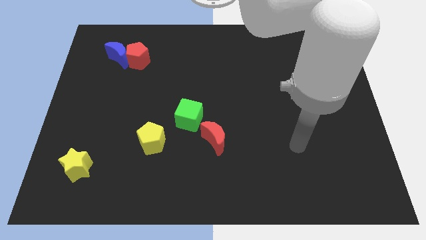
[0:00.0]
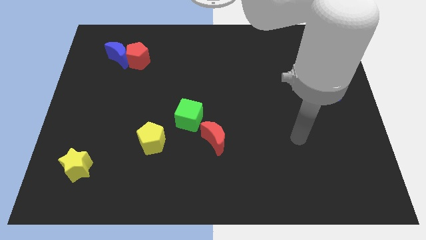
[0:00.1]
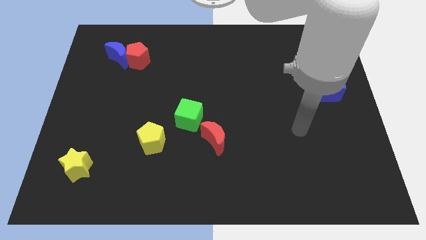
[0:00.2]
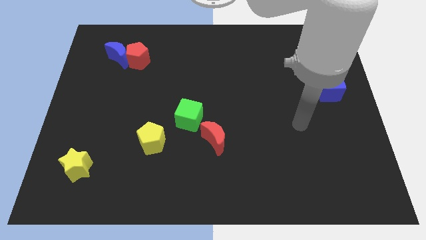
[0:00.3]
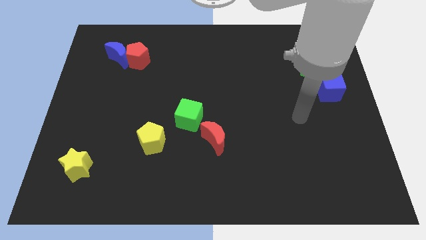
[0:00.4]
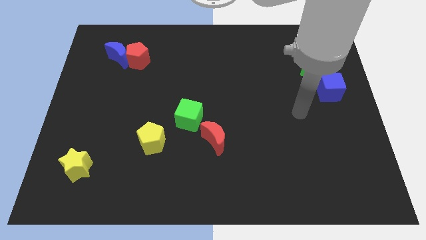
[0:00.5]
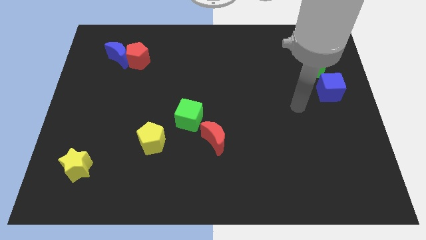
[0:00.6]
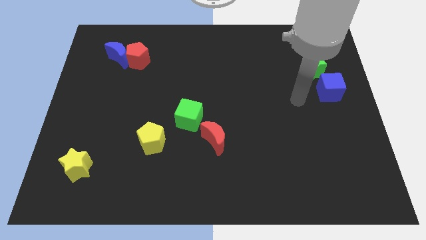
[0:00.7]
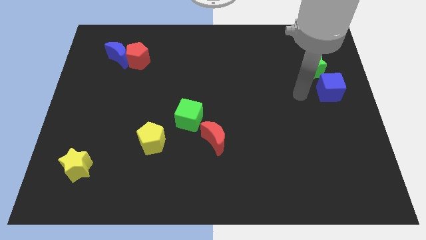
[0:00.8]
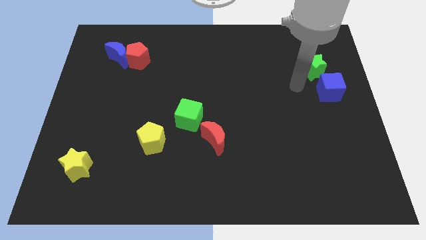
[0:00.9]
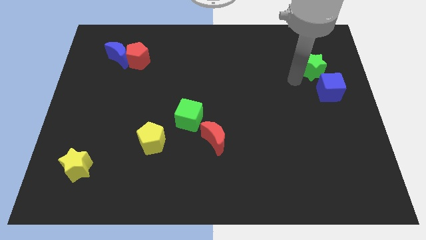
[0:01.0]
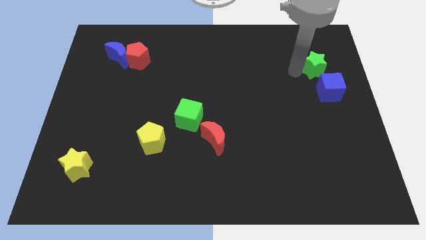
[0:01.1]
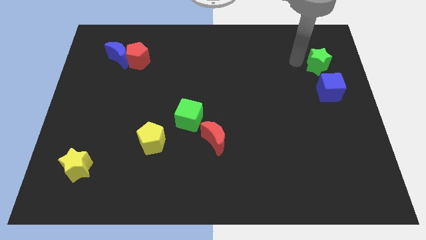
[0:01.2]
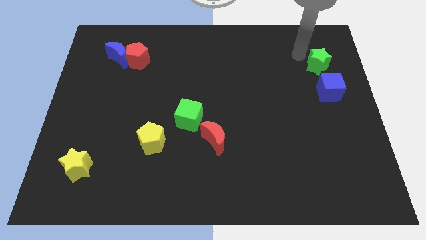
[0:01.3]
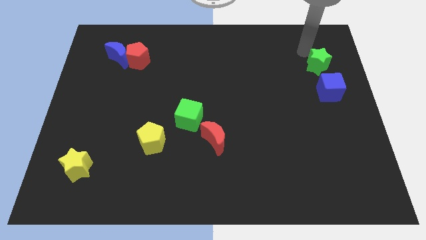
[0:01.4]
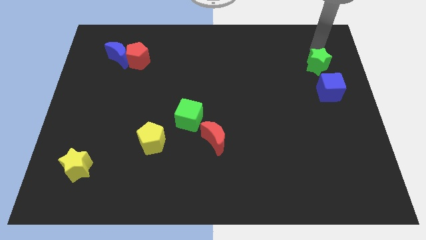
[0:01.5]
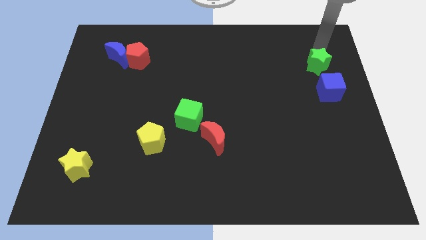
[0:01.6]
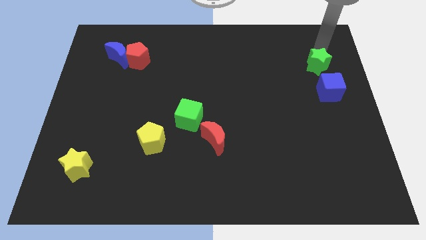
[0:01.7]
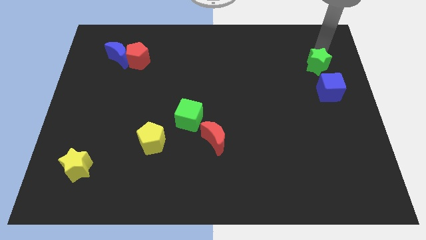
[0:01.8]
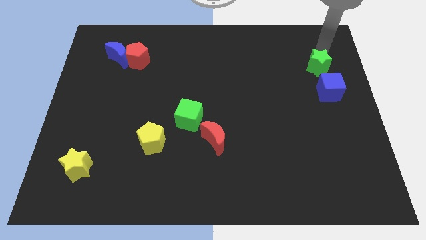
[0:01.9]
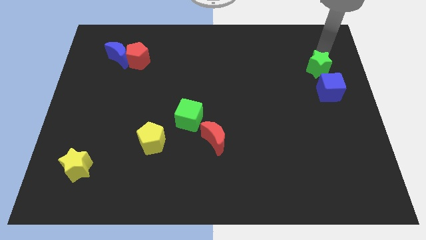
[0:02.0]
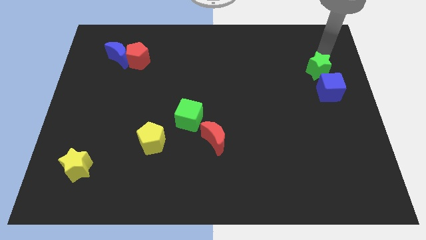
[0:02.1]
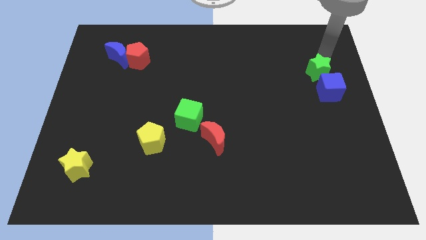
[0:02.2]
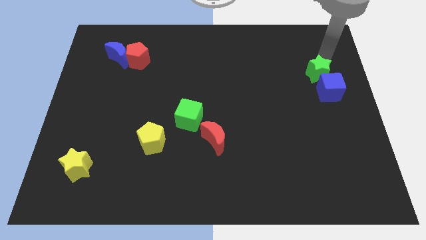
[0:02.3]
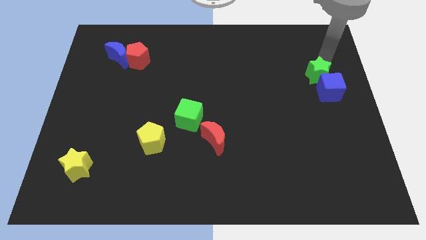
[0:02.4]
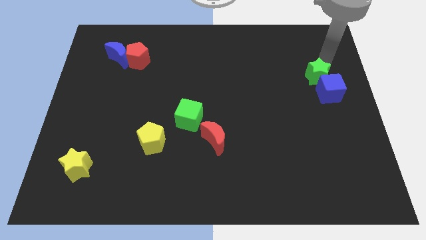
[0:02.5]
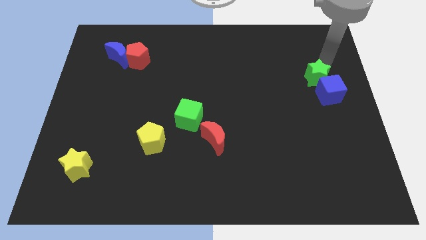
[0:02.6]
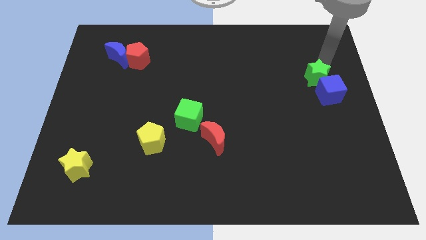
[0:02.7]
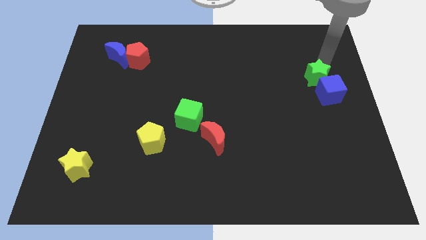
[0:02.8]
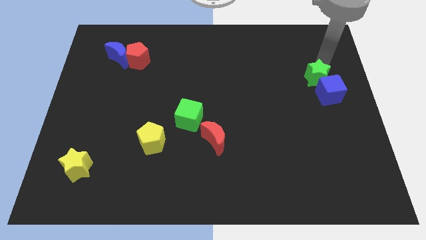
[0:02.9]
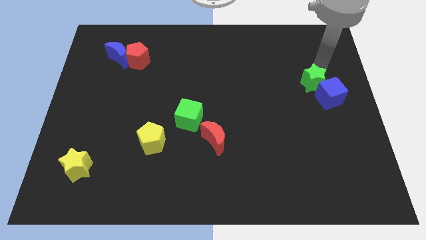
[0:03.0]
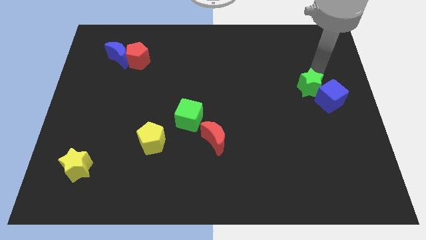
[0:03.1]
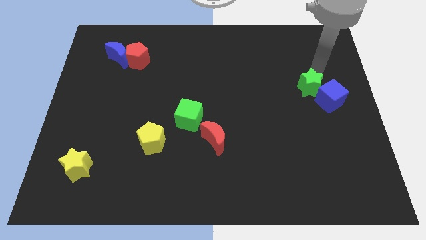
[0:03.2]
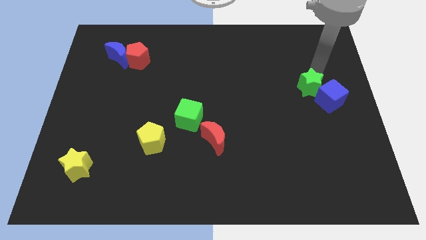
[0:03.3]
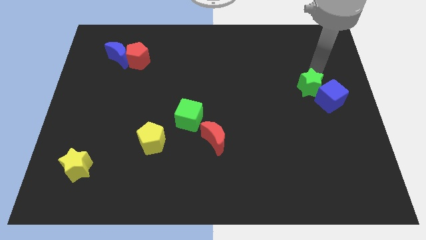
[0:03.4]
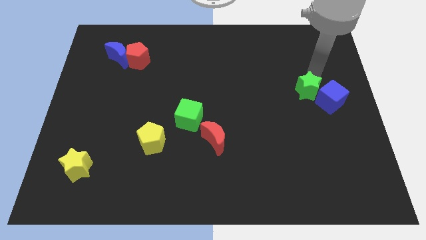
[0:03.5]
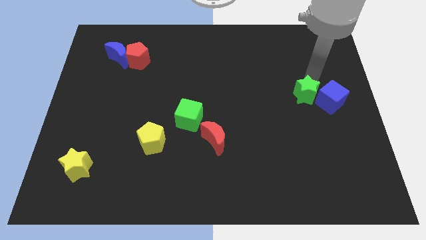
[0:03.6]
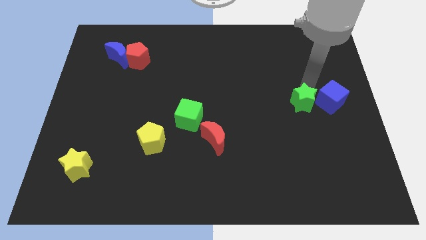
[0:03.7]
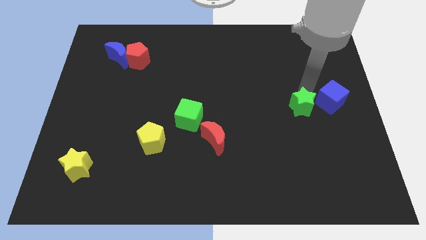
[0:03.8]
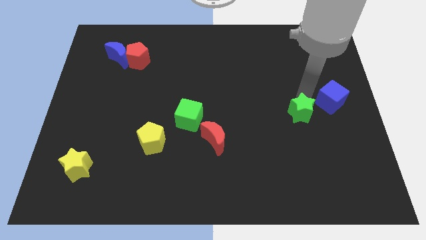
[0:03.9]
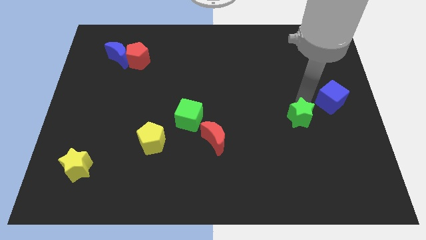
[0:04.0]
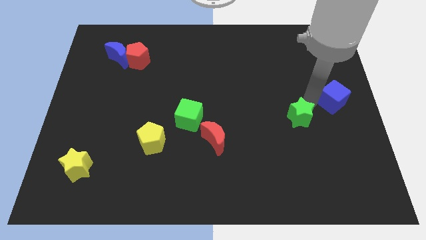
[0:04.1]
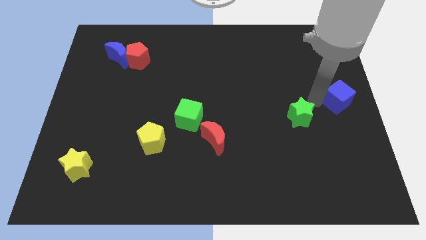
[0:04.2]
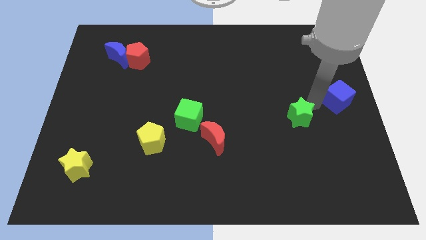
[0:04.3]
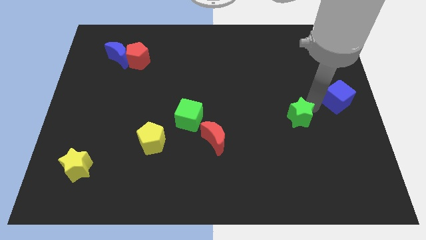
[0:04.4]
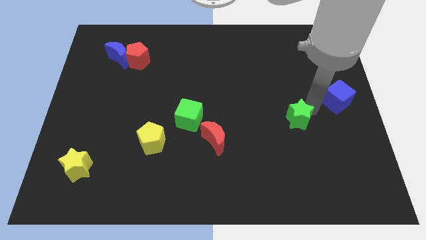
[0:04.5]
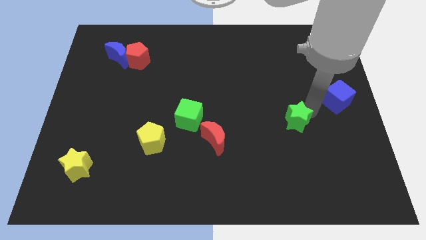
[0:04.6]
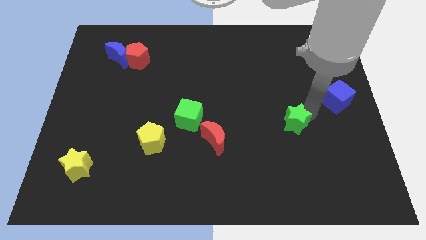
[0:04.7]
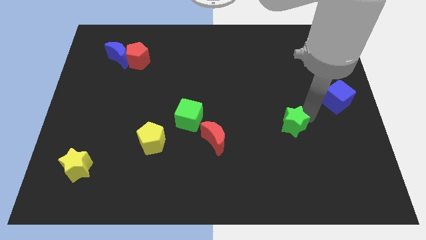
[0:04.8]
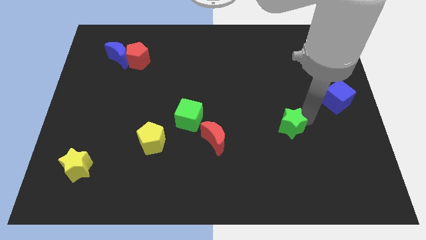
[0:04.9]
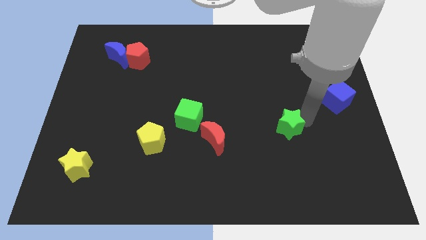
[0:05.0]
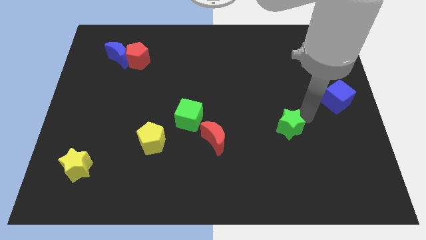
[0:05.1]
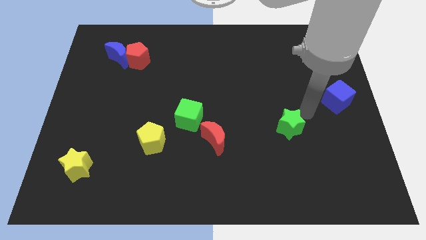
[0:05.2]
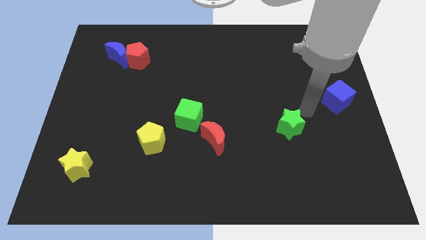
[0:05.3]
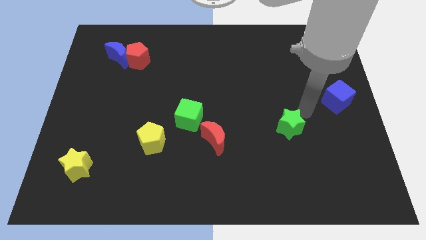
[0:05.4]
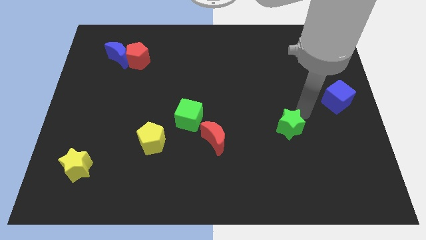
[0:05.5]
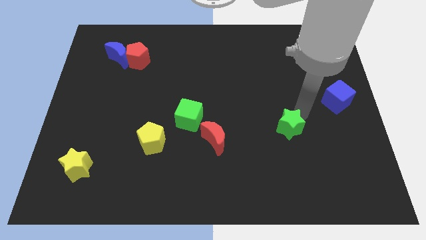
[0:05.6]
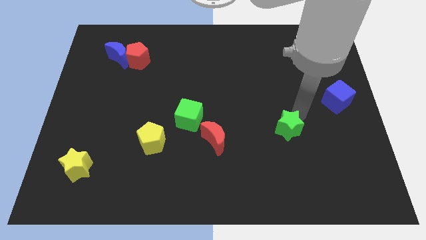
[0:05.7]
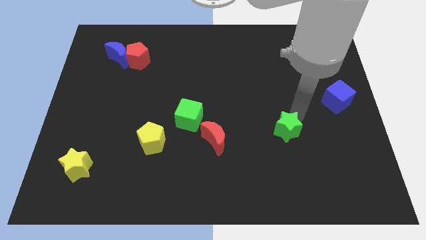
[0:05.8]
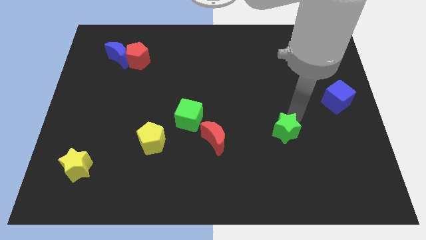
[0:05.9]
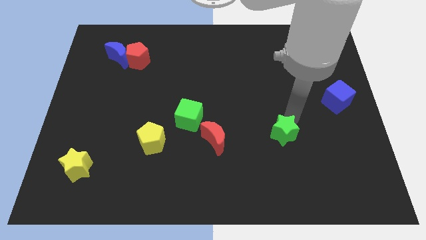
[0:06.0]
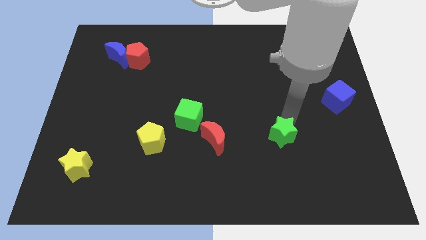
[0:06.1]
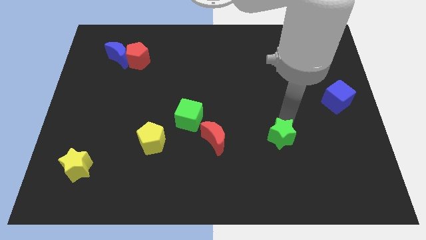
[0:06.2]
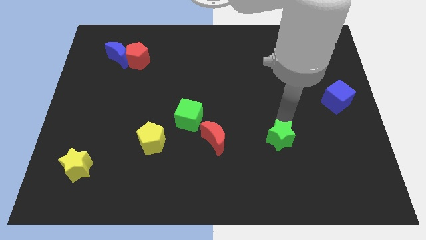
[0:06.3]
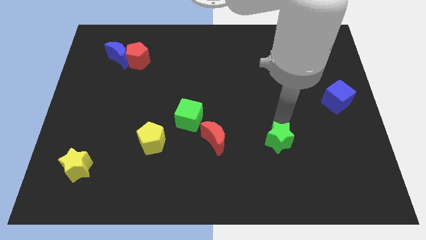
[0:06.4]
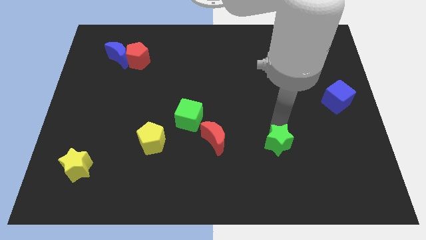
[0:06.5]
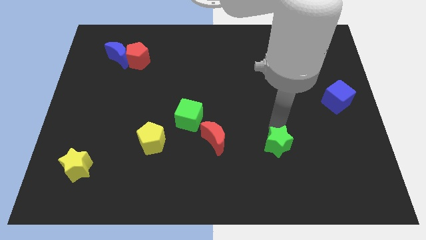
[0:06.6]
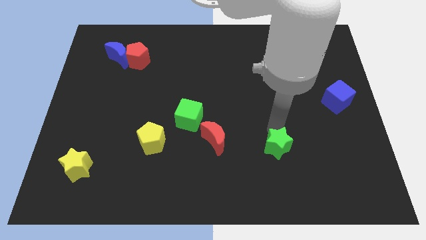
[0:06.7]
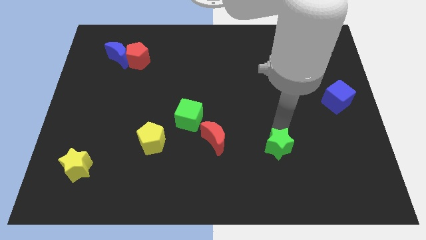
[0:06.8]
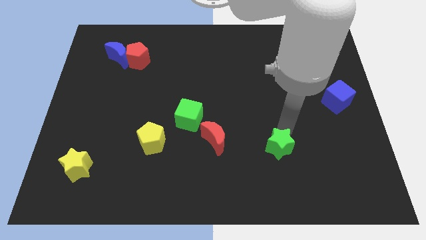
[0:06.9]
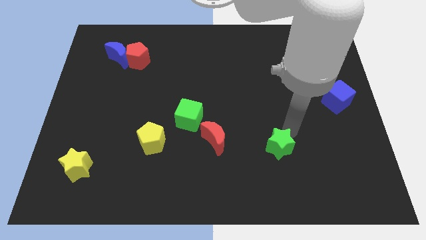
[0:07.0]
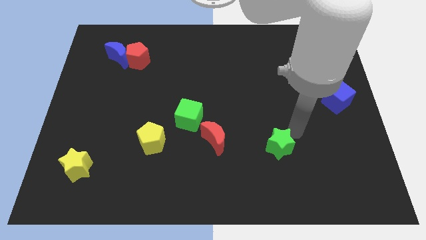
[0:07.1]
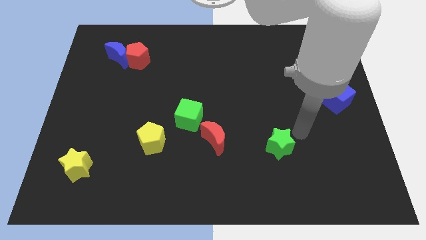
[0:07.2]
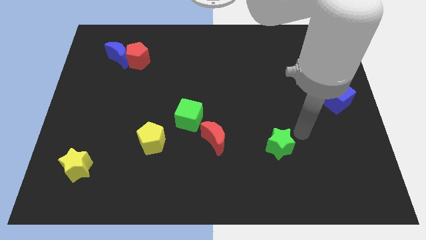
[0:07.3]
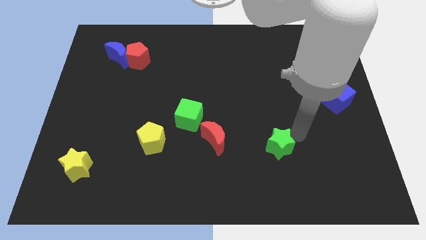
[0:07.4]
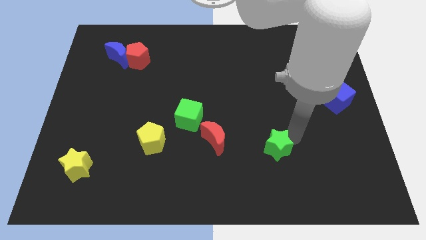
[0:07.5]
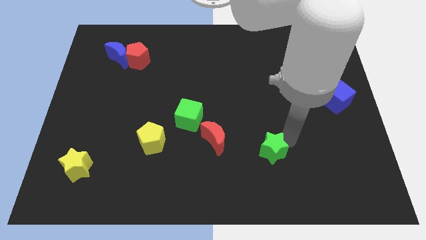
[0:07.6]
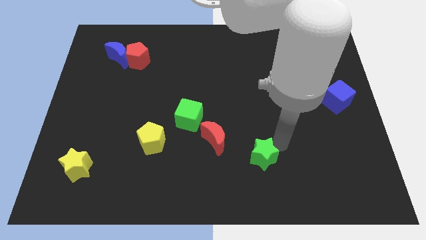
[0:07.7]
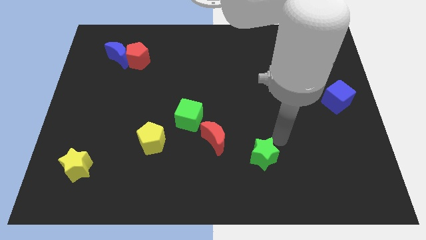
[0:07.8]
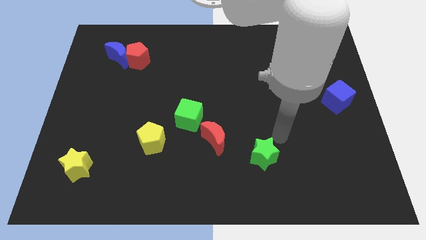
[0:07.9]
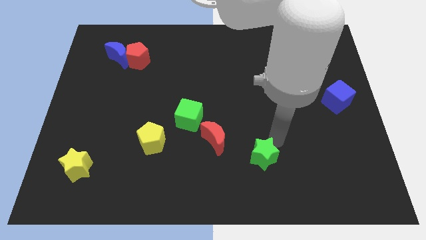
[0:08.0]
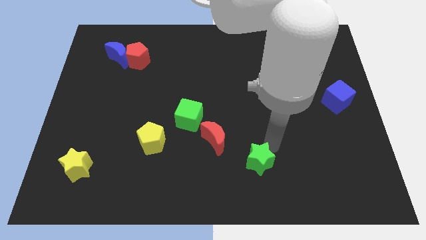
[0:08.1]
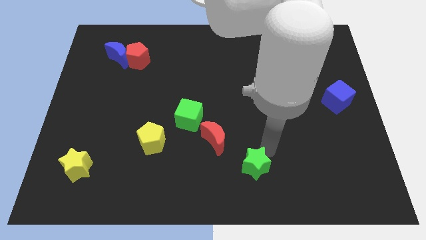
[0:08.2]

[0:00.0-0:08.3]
move the green star to the bottom
